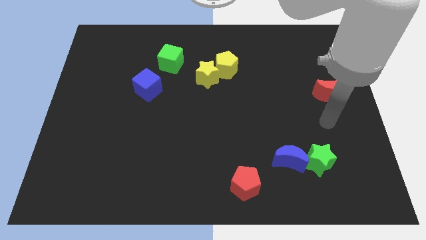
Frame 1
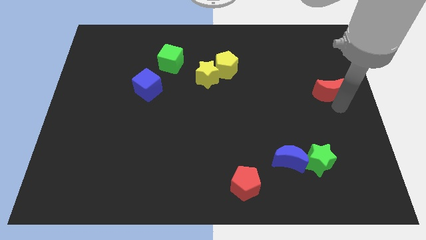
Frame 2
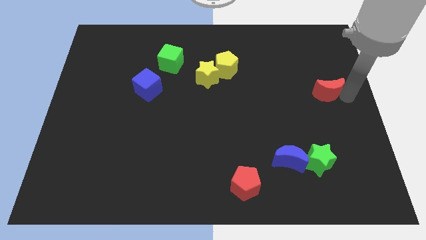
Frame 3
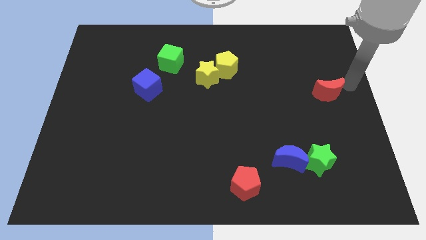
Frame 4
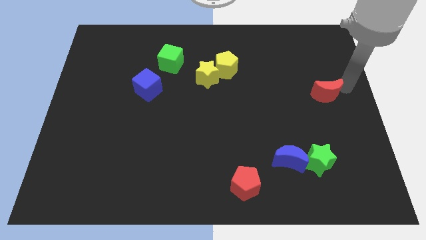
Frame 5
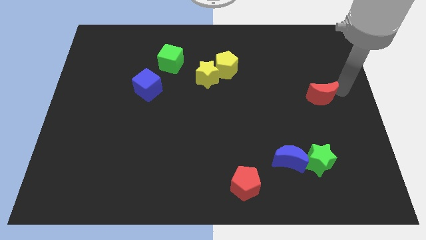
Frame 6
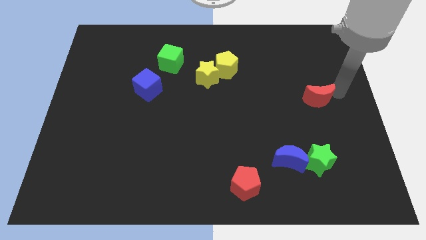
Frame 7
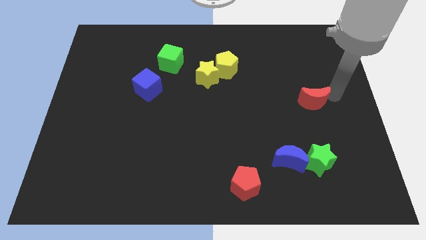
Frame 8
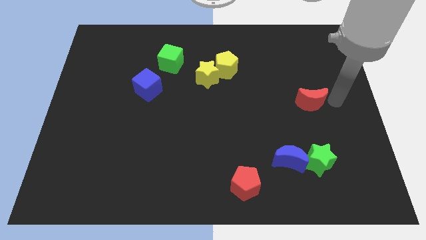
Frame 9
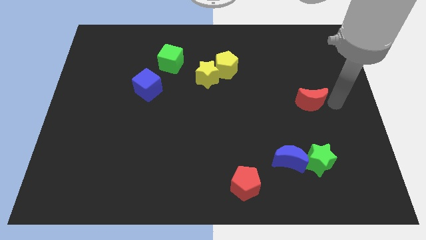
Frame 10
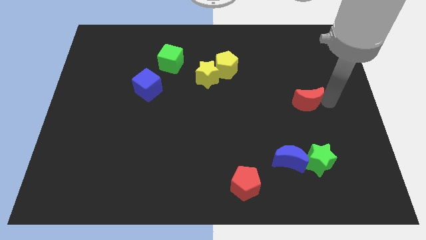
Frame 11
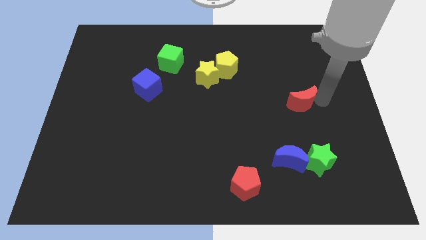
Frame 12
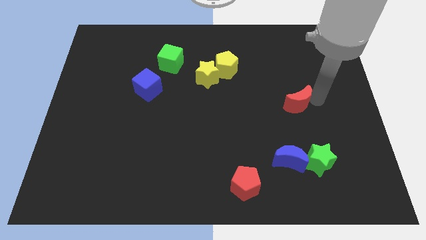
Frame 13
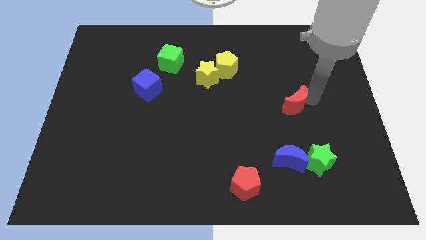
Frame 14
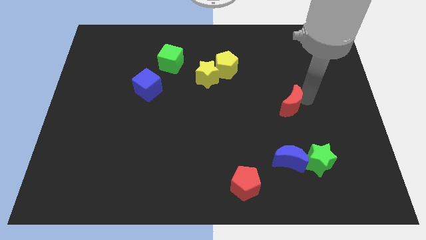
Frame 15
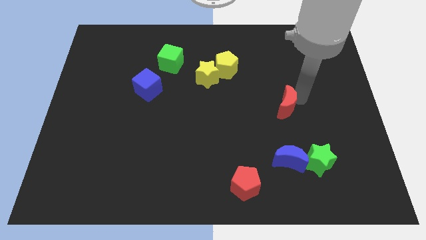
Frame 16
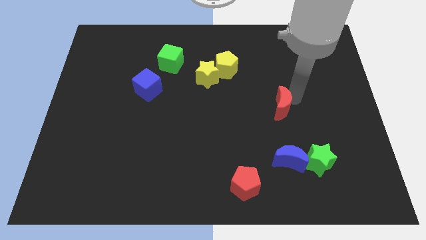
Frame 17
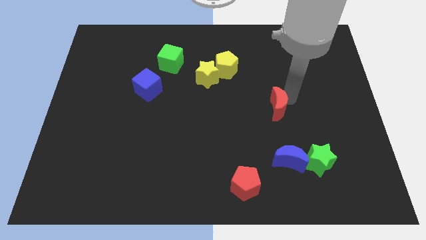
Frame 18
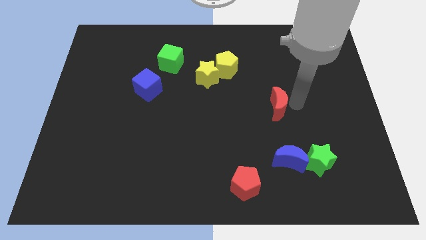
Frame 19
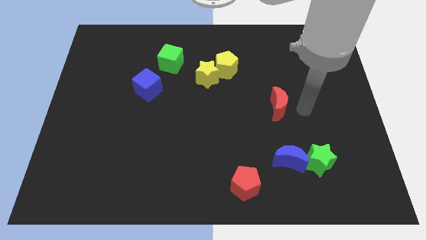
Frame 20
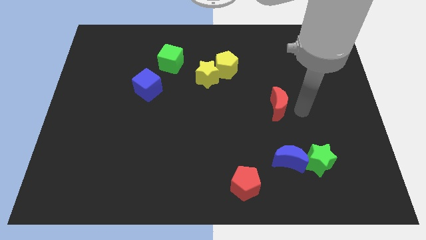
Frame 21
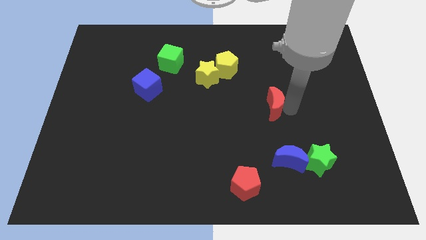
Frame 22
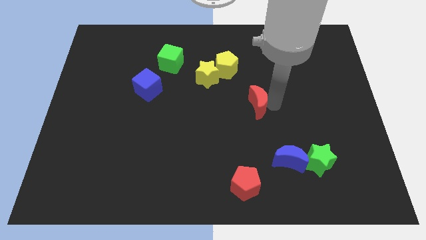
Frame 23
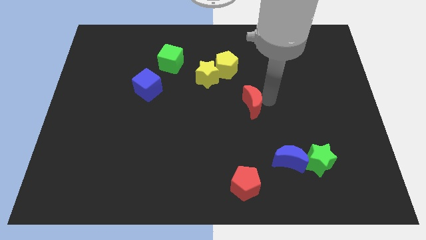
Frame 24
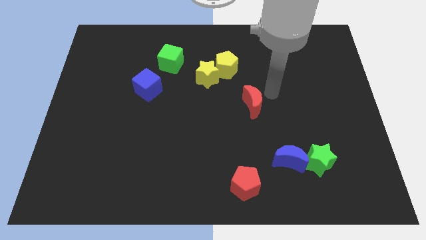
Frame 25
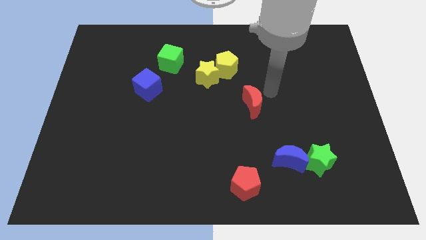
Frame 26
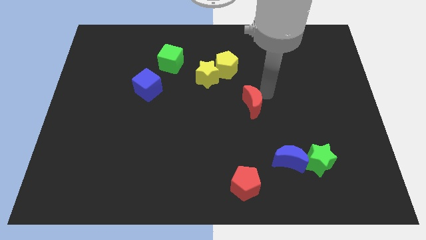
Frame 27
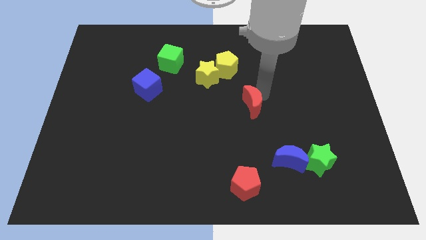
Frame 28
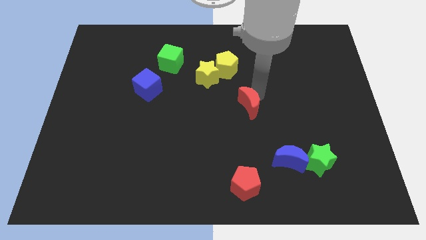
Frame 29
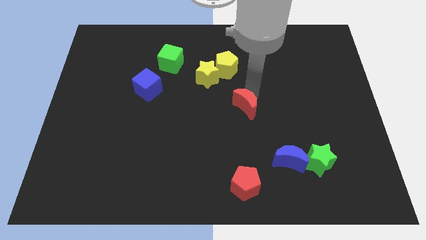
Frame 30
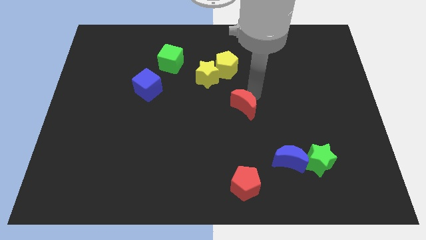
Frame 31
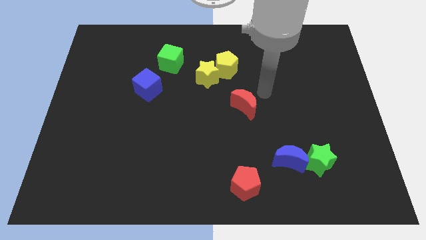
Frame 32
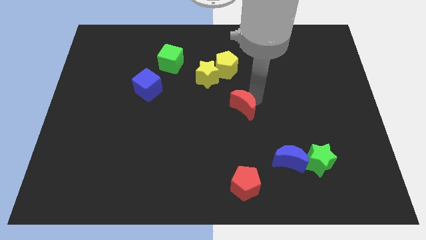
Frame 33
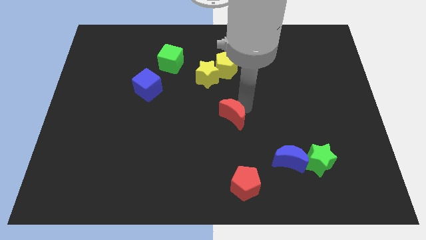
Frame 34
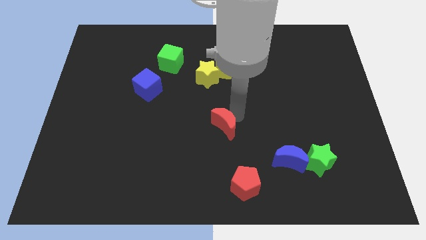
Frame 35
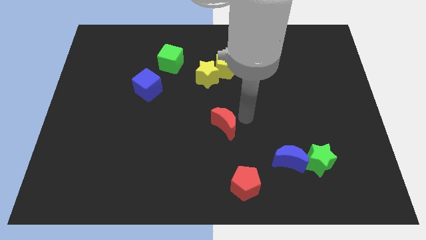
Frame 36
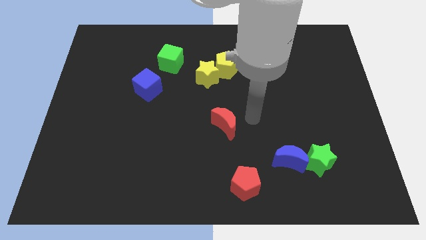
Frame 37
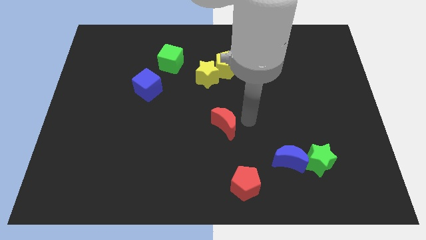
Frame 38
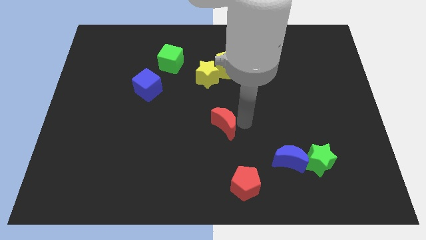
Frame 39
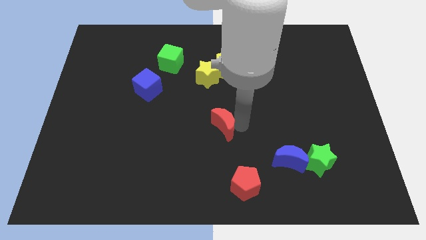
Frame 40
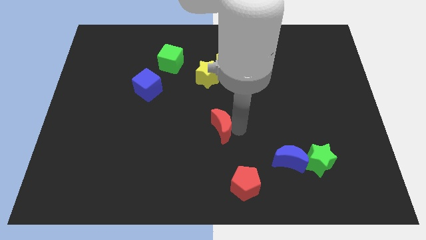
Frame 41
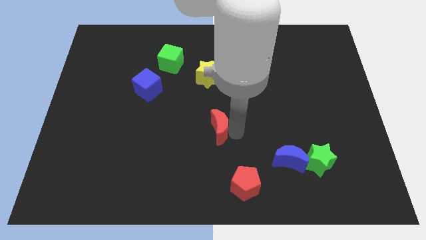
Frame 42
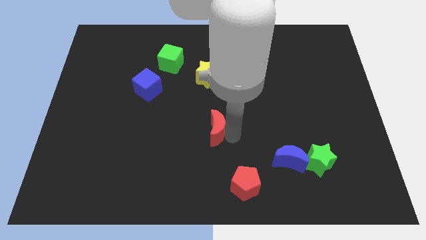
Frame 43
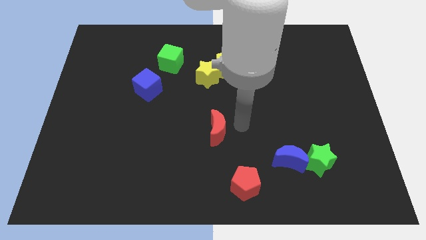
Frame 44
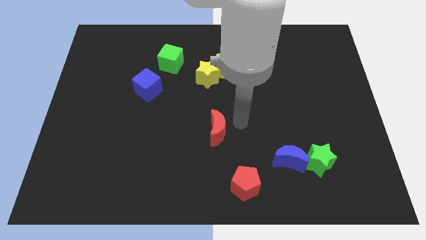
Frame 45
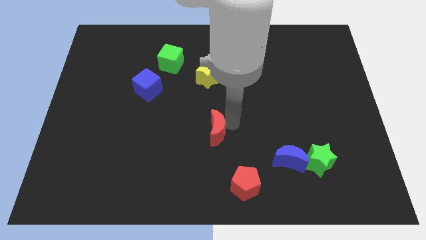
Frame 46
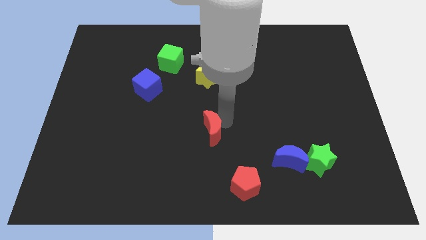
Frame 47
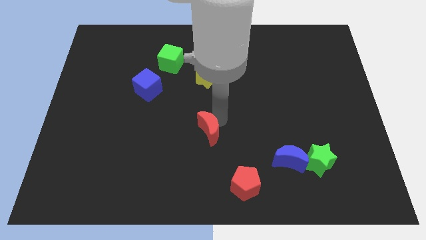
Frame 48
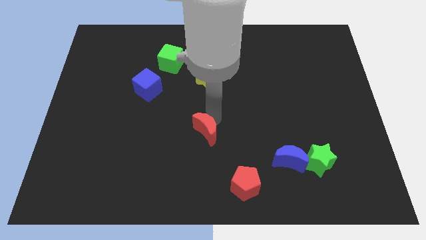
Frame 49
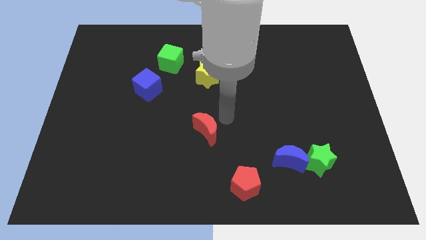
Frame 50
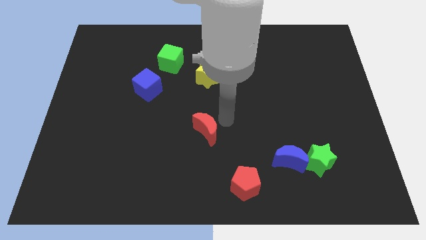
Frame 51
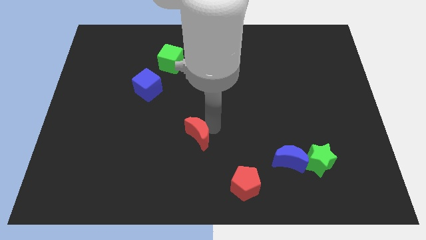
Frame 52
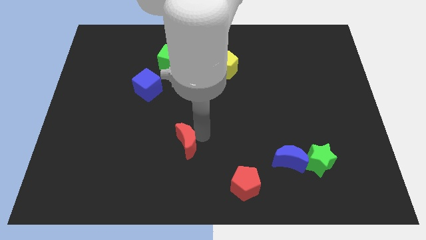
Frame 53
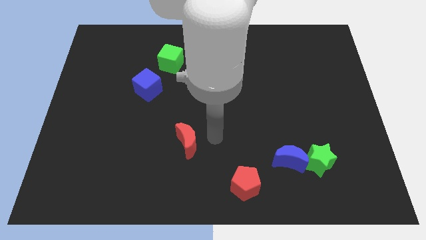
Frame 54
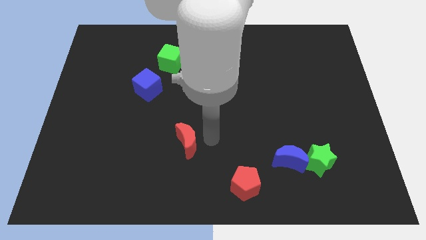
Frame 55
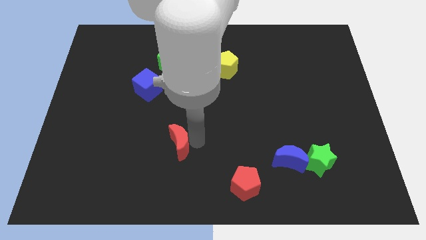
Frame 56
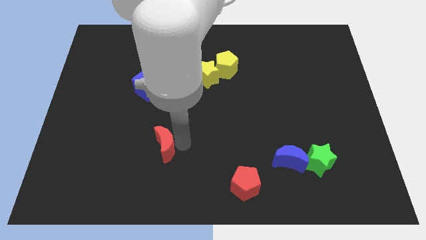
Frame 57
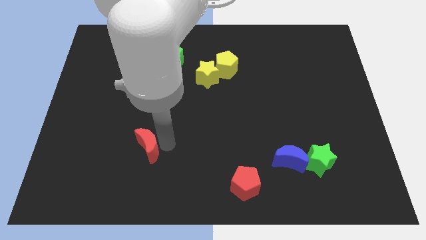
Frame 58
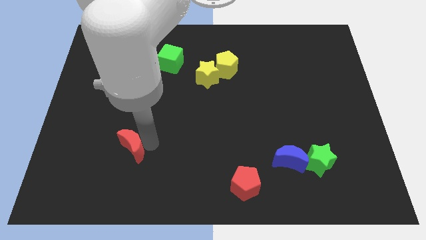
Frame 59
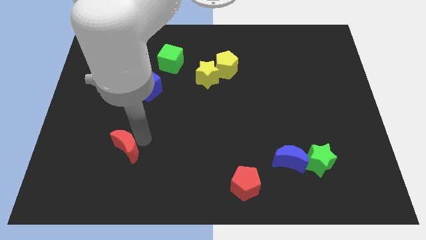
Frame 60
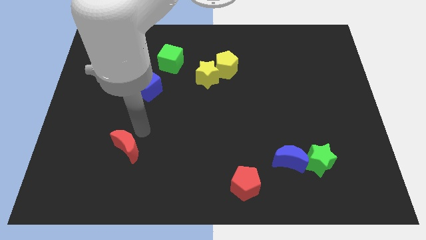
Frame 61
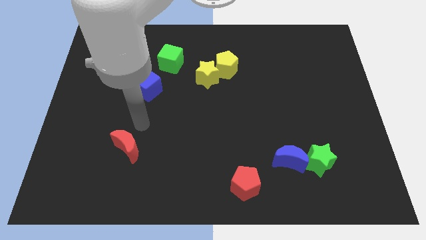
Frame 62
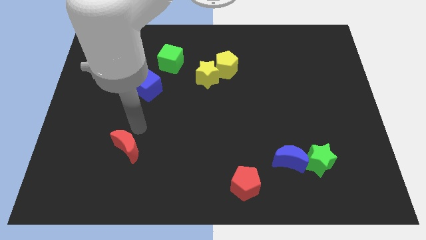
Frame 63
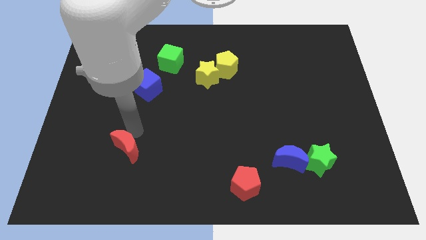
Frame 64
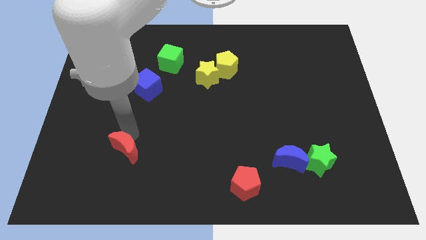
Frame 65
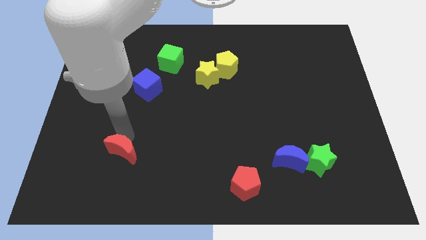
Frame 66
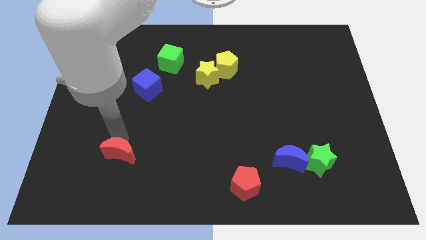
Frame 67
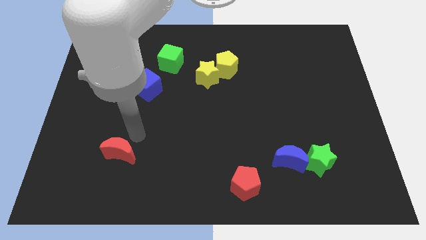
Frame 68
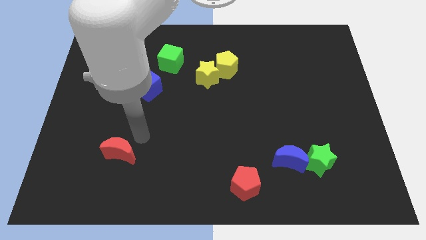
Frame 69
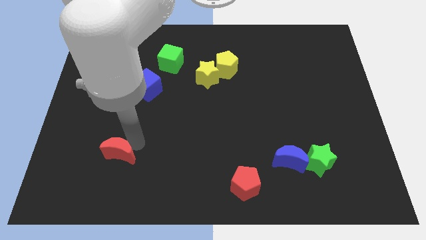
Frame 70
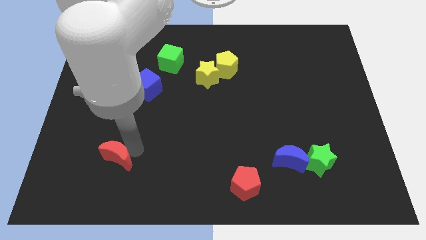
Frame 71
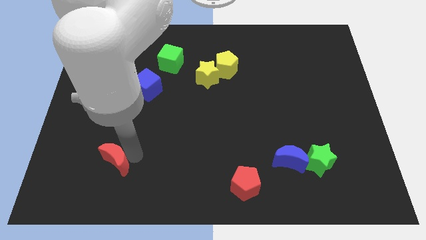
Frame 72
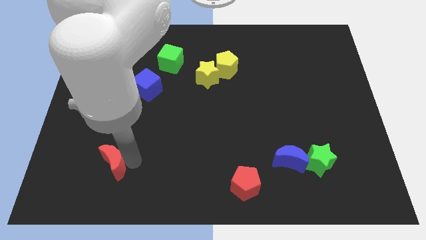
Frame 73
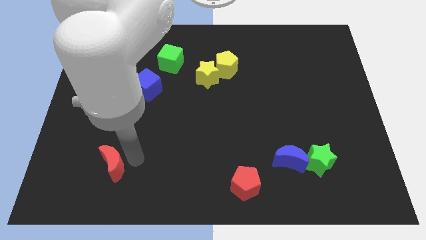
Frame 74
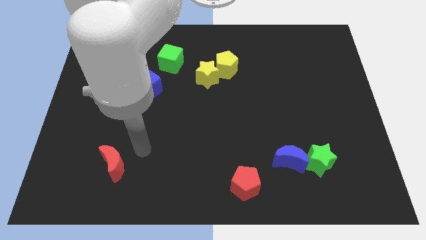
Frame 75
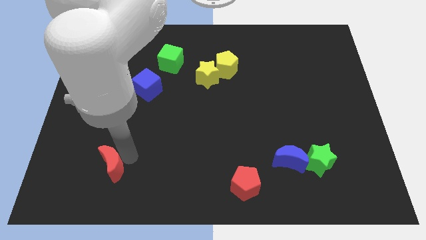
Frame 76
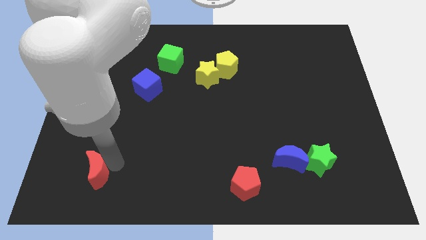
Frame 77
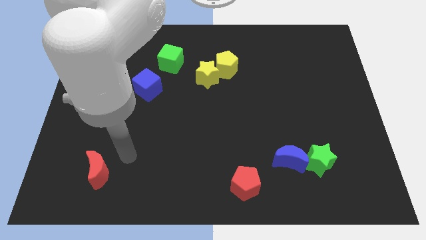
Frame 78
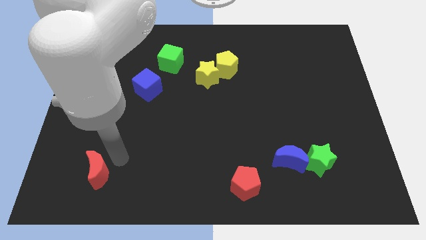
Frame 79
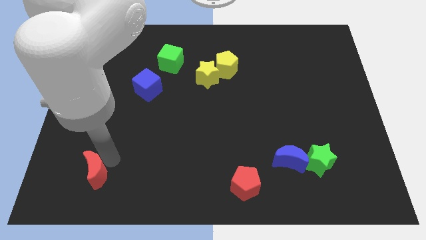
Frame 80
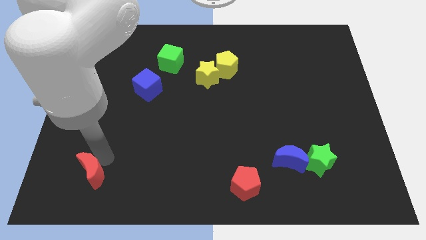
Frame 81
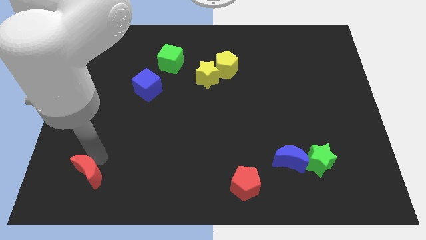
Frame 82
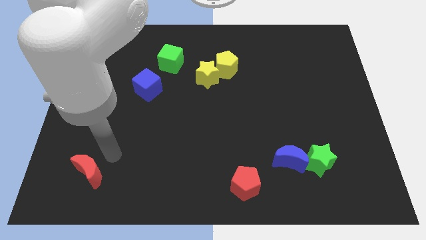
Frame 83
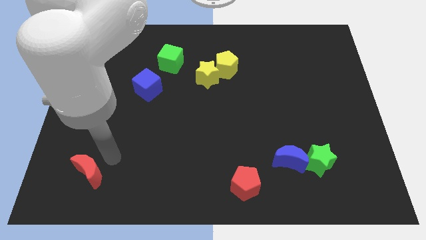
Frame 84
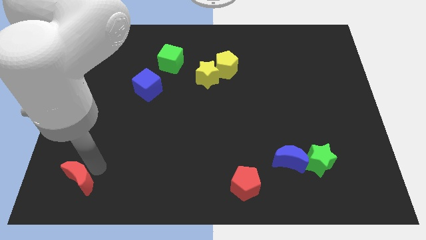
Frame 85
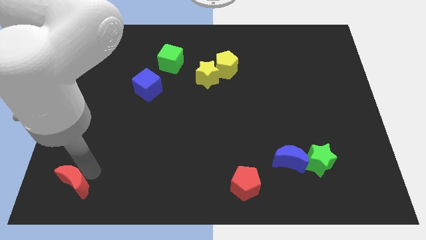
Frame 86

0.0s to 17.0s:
slide the red moon to the bottom left corner
